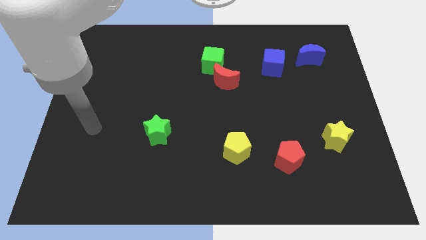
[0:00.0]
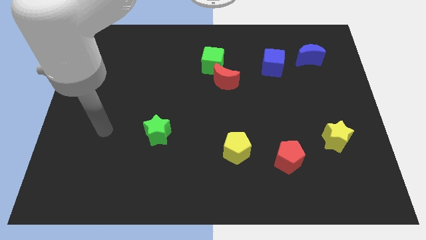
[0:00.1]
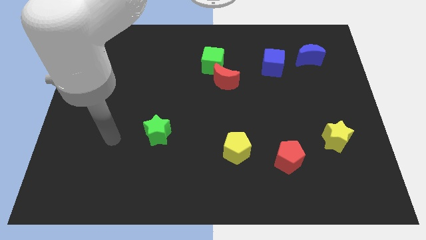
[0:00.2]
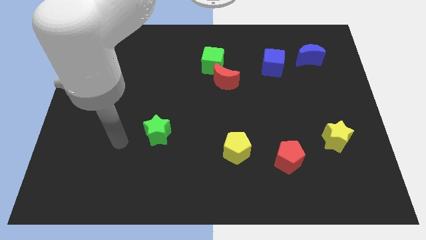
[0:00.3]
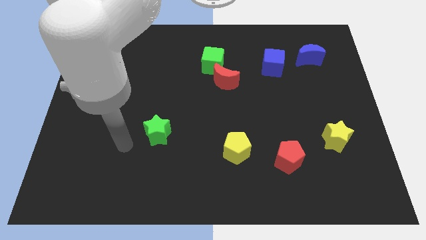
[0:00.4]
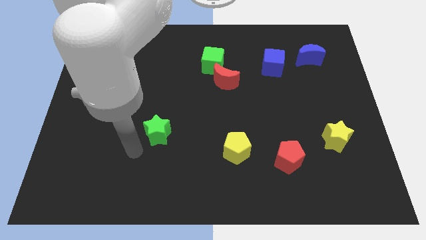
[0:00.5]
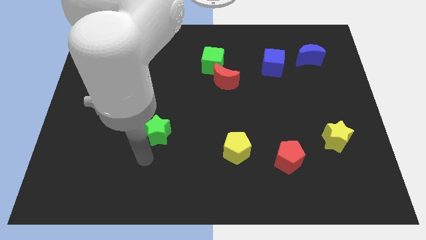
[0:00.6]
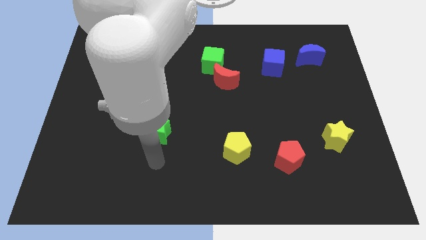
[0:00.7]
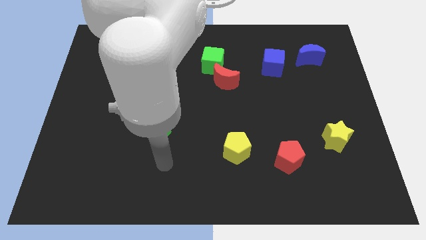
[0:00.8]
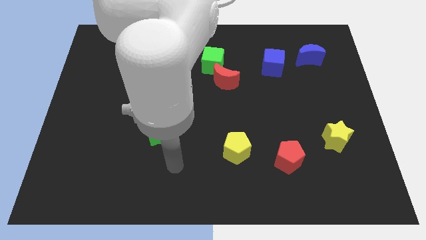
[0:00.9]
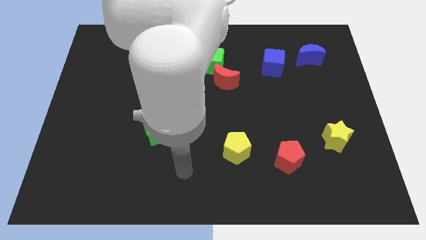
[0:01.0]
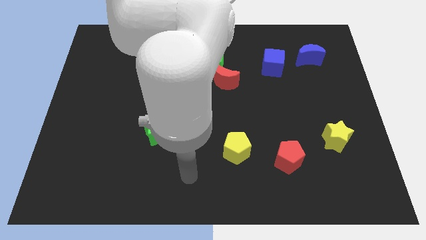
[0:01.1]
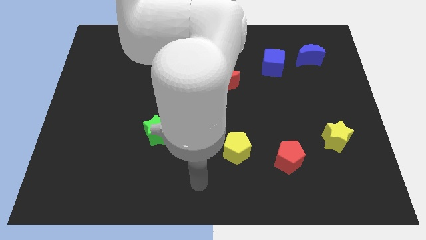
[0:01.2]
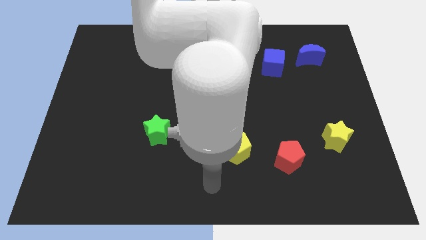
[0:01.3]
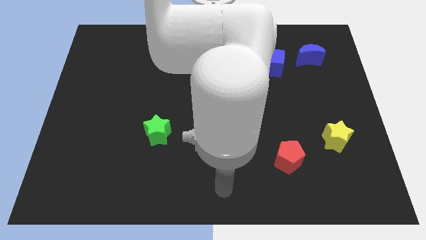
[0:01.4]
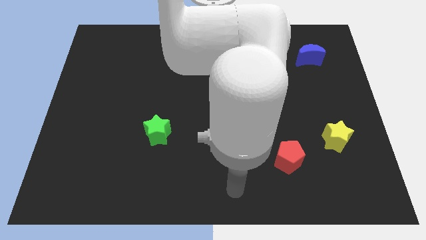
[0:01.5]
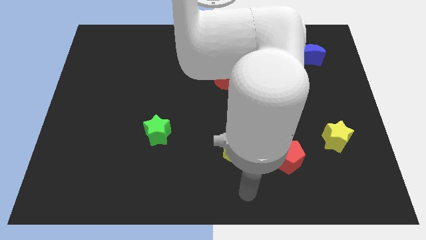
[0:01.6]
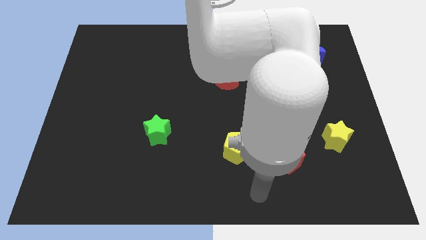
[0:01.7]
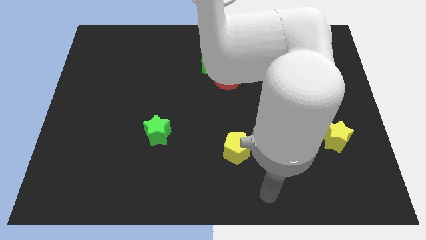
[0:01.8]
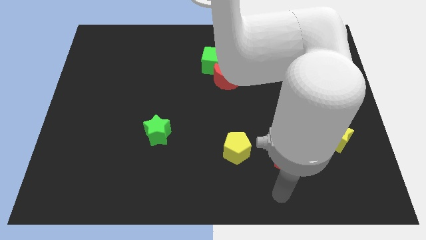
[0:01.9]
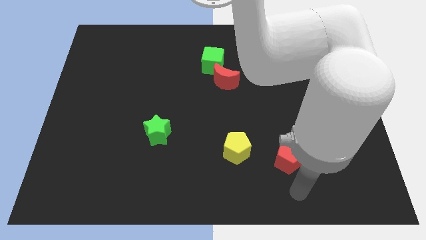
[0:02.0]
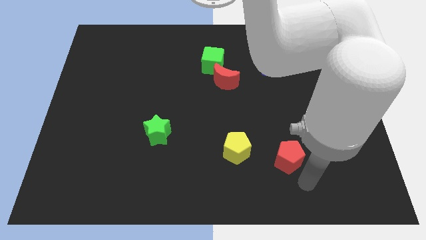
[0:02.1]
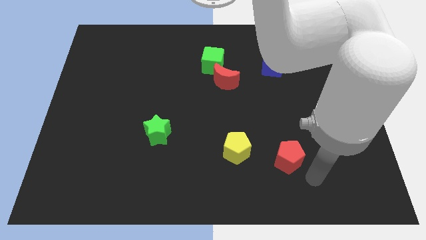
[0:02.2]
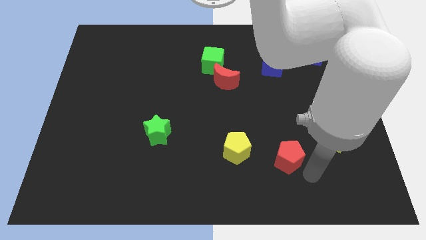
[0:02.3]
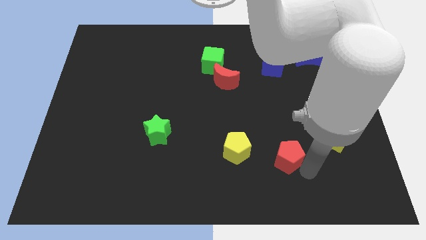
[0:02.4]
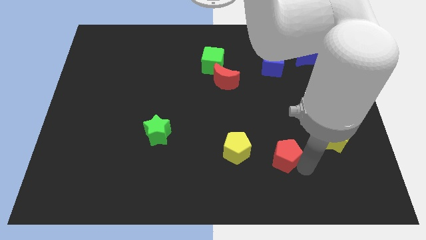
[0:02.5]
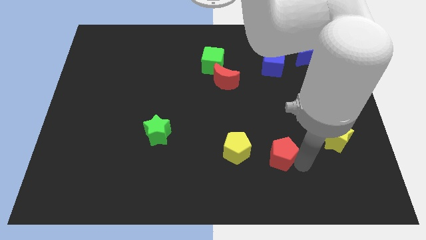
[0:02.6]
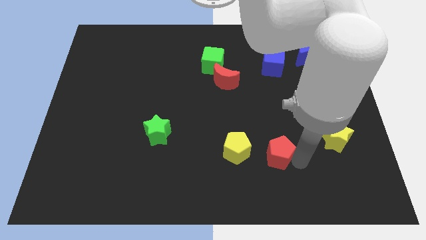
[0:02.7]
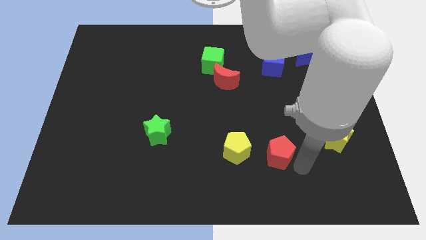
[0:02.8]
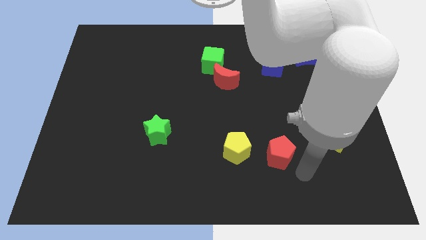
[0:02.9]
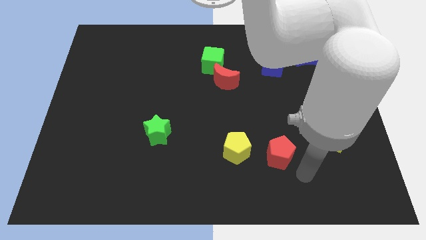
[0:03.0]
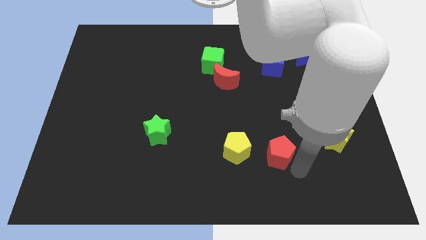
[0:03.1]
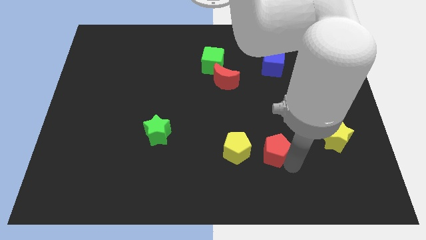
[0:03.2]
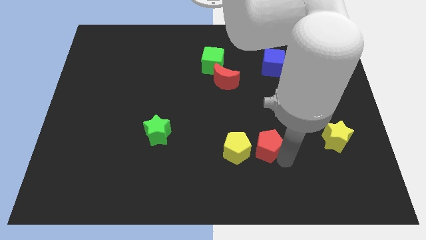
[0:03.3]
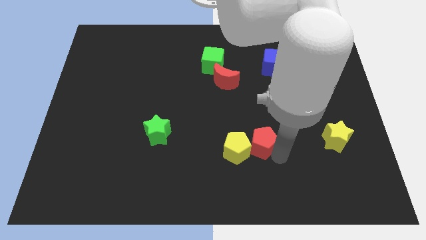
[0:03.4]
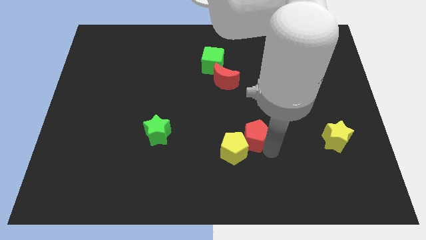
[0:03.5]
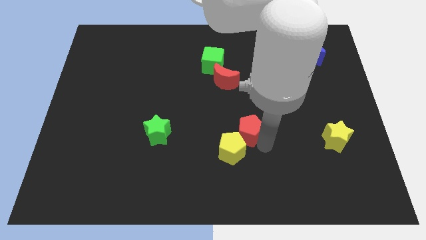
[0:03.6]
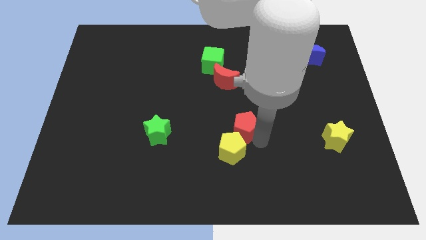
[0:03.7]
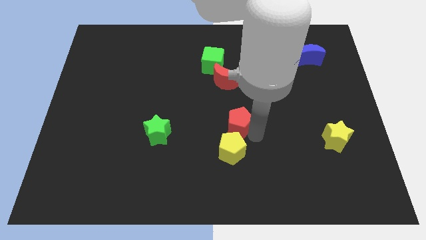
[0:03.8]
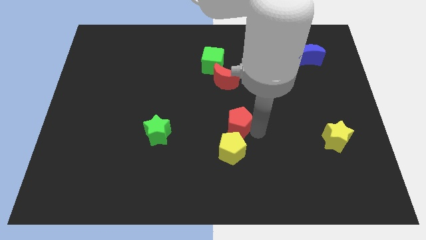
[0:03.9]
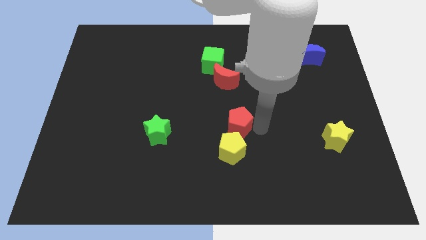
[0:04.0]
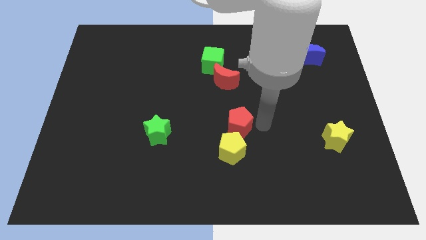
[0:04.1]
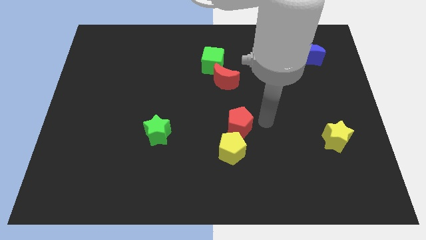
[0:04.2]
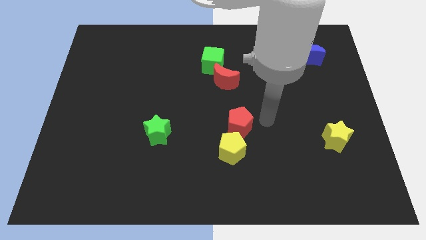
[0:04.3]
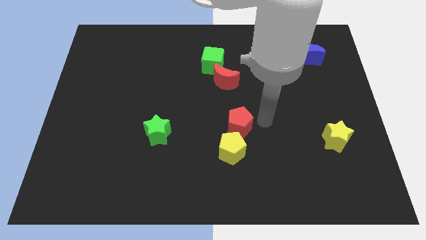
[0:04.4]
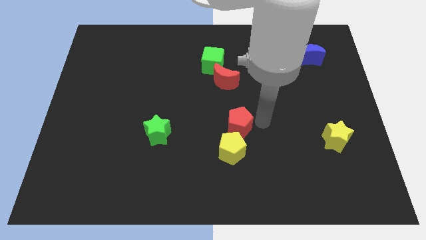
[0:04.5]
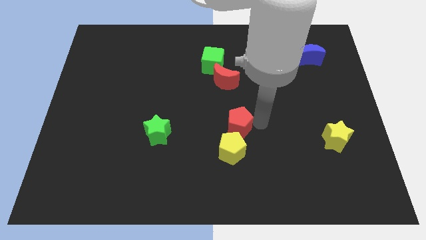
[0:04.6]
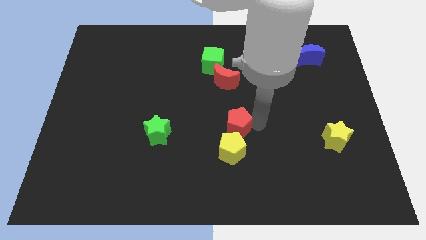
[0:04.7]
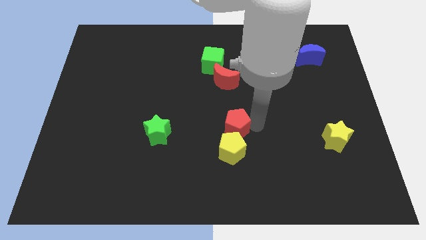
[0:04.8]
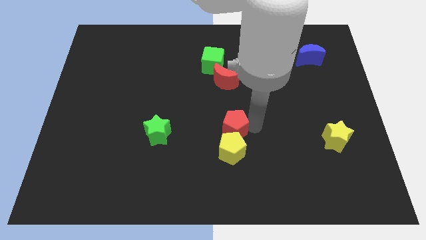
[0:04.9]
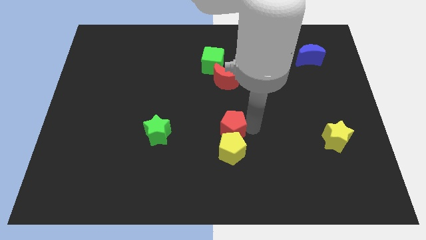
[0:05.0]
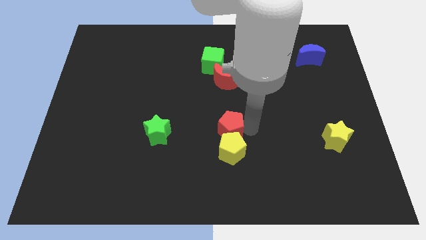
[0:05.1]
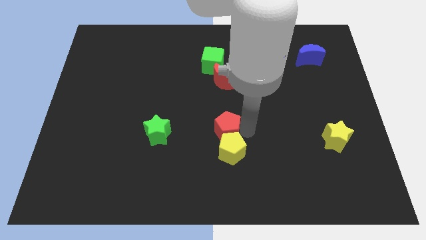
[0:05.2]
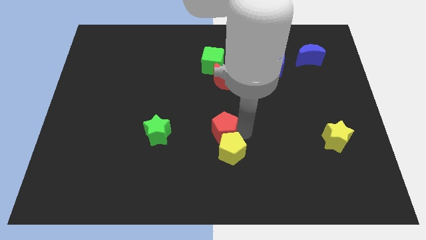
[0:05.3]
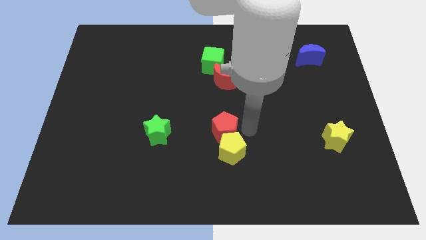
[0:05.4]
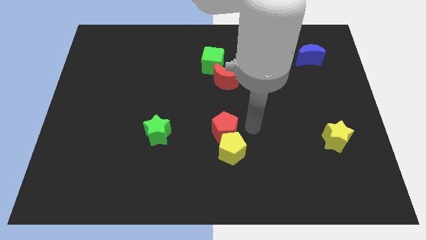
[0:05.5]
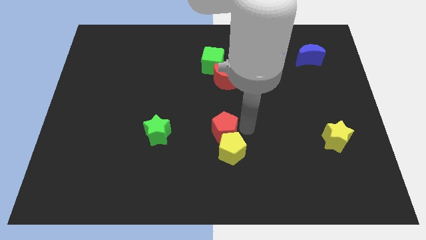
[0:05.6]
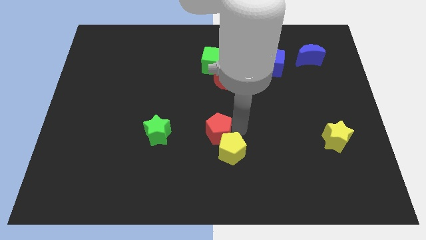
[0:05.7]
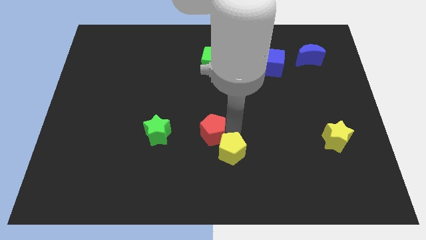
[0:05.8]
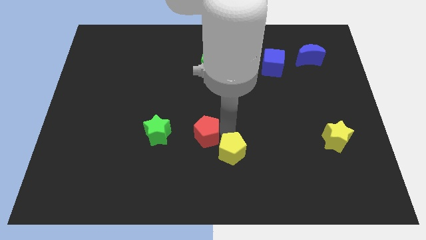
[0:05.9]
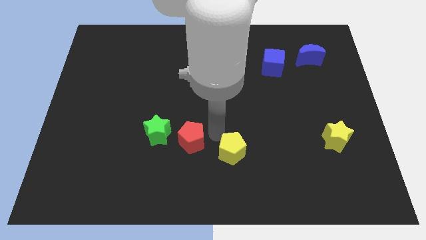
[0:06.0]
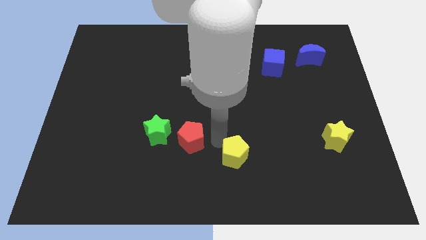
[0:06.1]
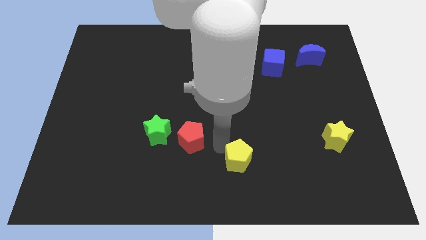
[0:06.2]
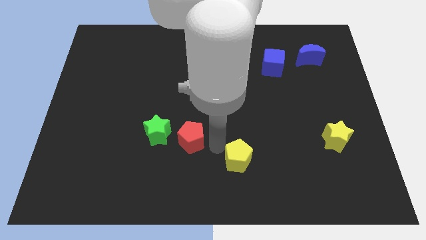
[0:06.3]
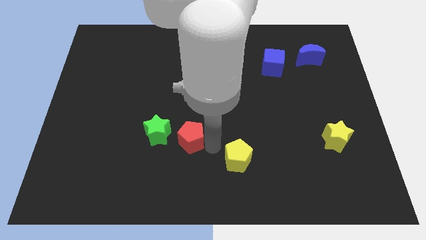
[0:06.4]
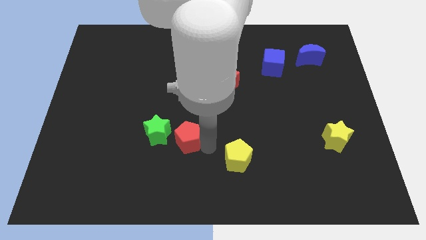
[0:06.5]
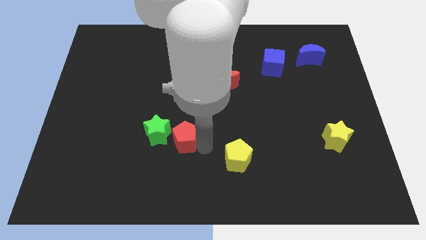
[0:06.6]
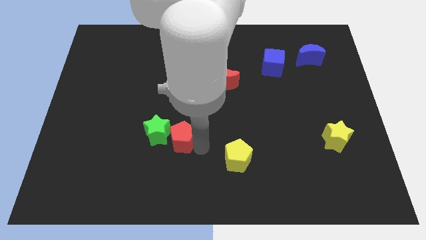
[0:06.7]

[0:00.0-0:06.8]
slide the red pentagon next to the green star
